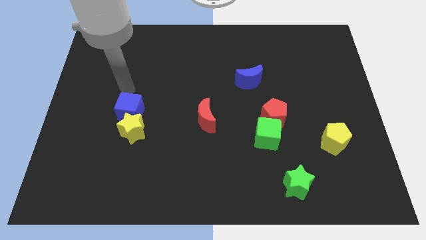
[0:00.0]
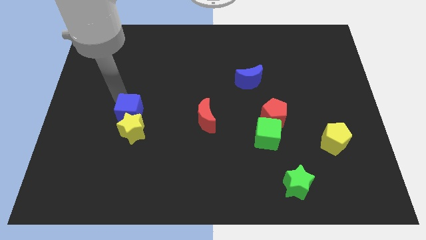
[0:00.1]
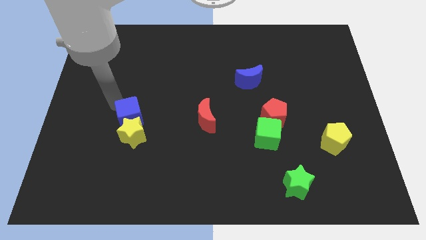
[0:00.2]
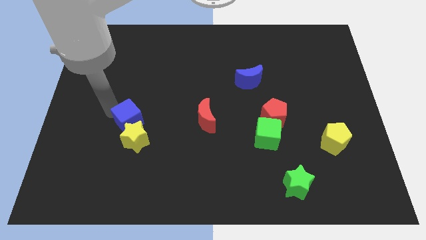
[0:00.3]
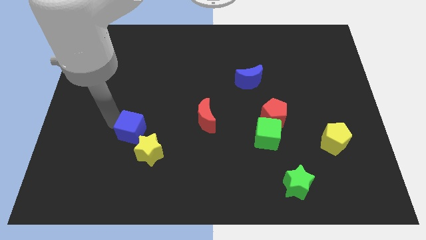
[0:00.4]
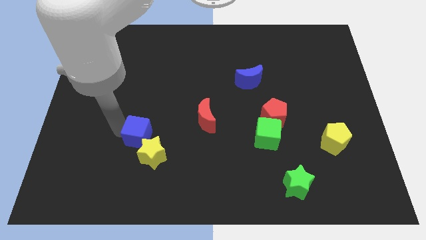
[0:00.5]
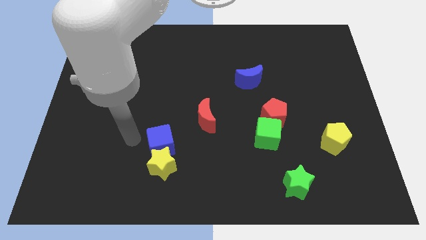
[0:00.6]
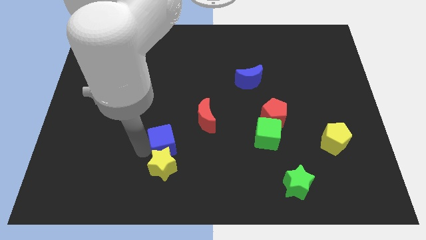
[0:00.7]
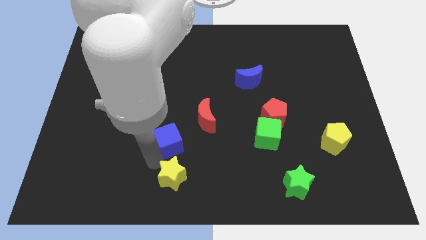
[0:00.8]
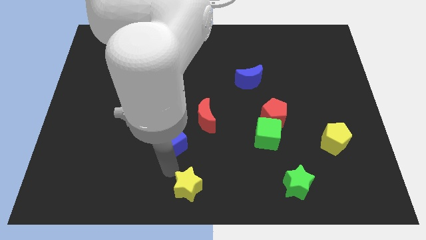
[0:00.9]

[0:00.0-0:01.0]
pull the blue cube apart from the yellow star

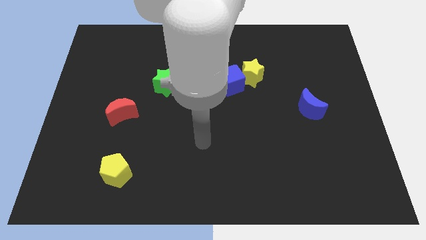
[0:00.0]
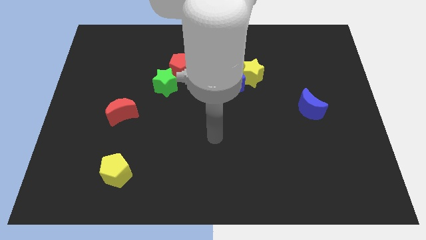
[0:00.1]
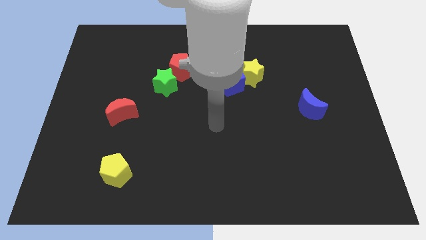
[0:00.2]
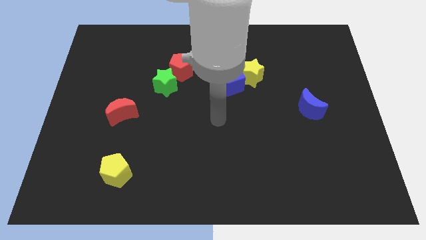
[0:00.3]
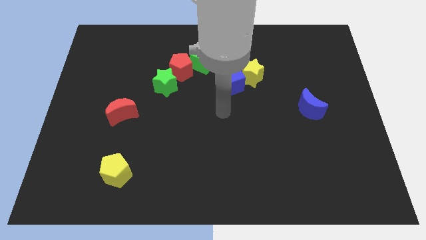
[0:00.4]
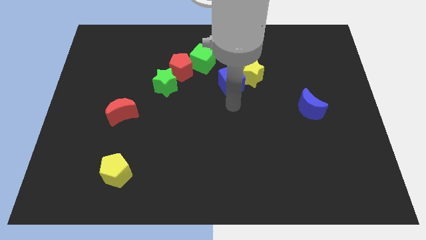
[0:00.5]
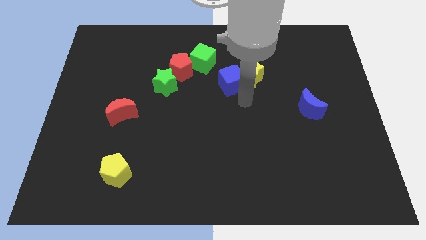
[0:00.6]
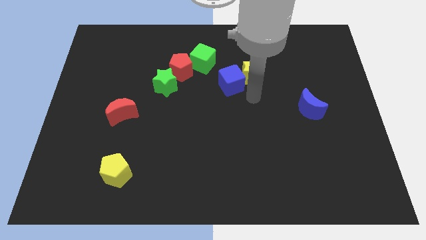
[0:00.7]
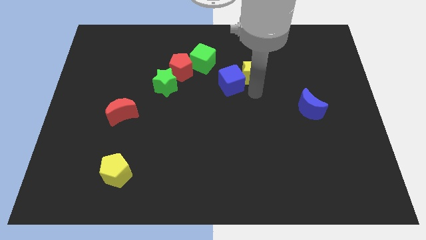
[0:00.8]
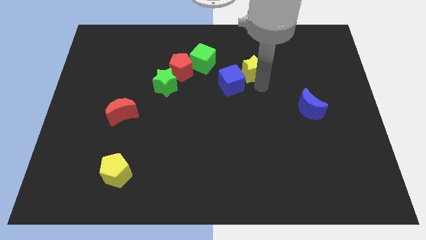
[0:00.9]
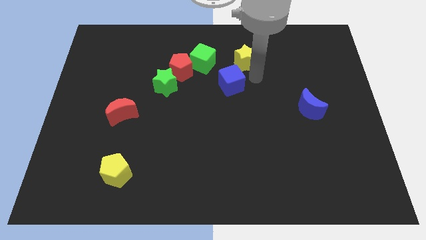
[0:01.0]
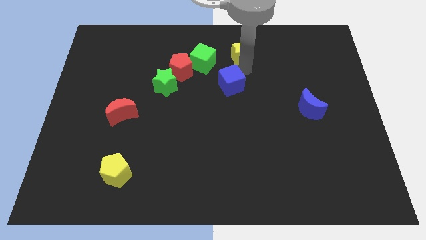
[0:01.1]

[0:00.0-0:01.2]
separate the blue cube from the yellow star

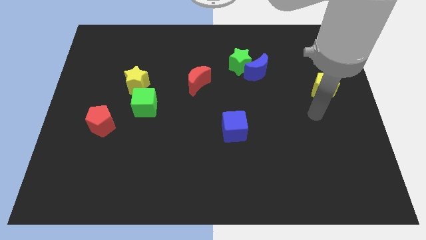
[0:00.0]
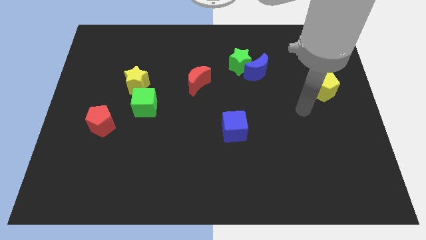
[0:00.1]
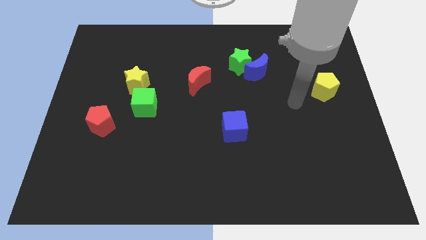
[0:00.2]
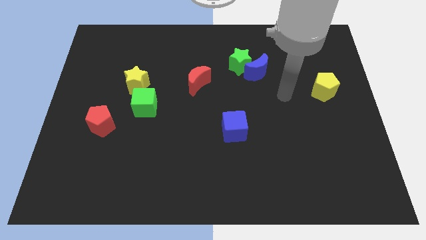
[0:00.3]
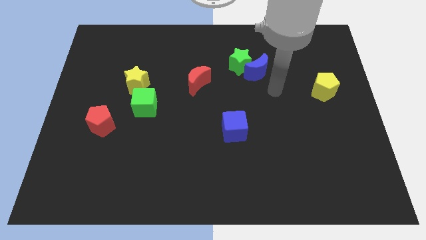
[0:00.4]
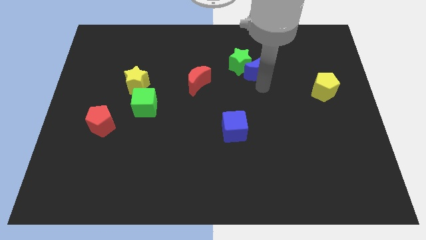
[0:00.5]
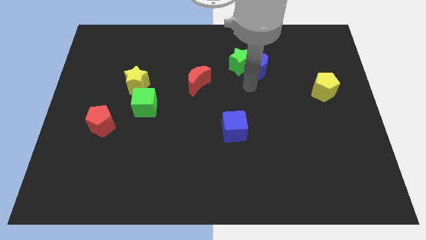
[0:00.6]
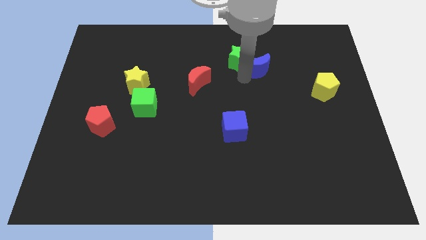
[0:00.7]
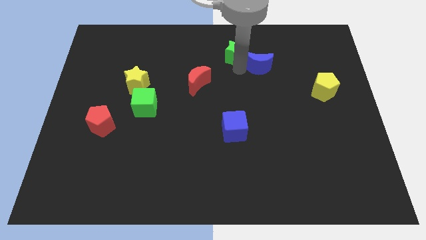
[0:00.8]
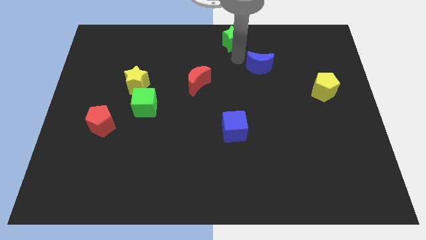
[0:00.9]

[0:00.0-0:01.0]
pull the blue moon apart from the green star

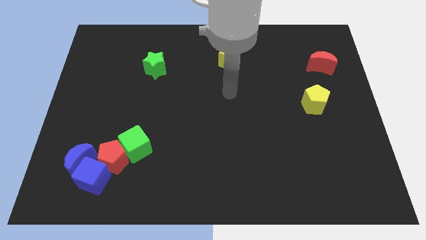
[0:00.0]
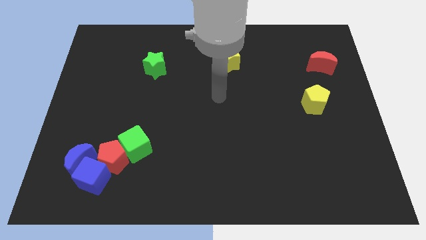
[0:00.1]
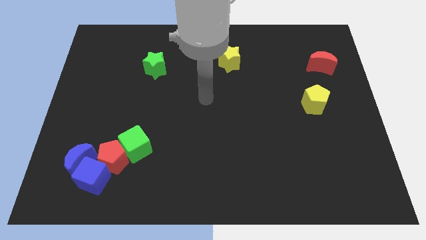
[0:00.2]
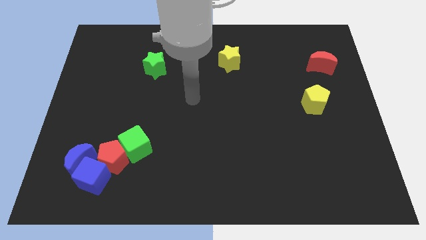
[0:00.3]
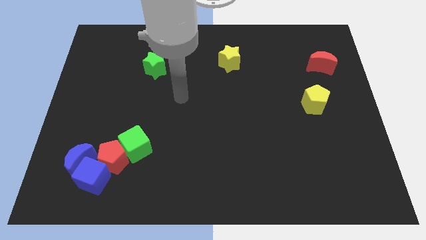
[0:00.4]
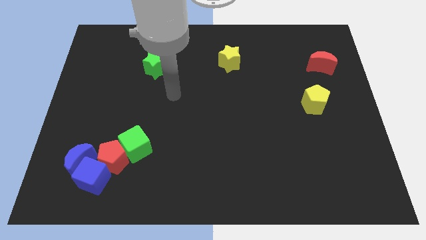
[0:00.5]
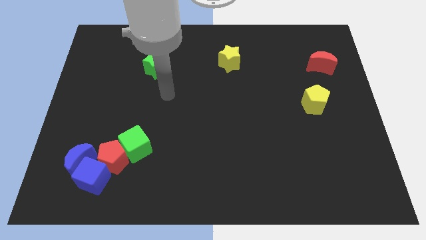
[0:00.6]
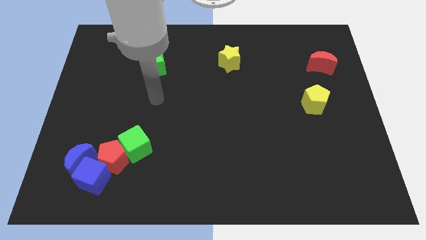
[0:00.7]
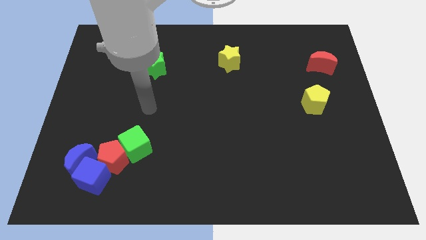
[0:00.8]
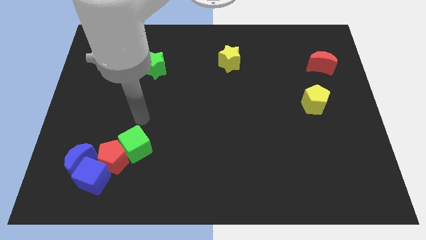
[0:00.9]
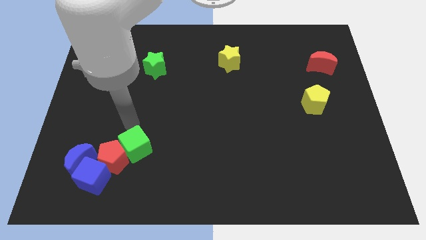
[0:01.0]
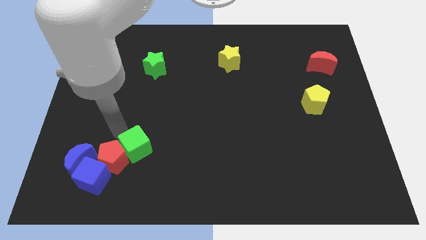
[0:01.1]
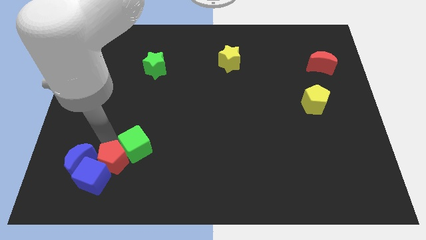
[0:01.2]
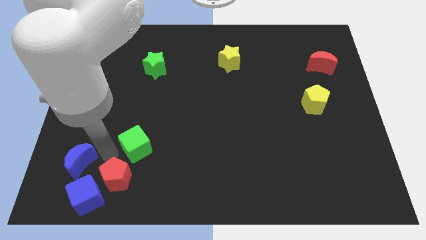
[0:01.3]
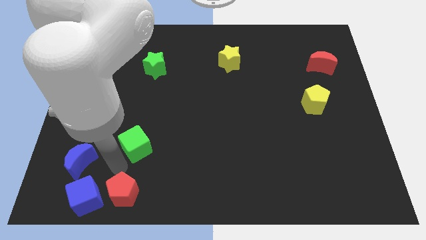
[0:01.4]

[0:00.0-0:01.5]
separate the green cube from the red pentagon

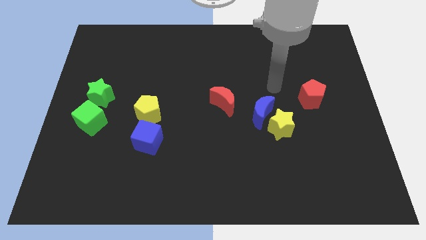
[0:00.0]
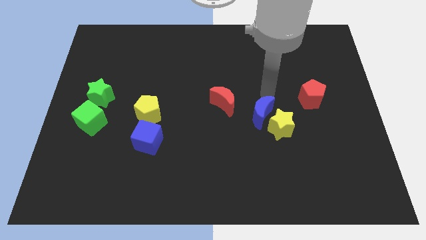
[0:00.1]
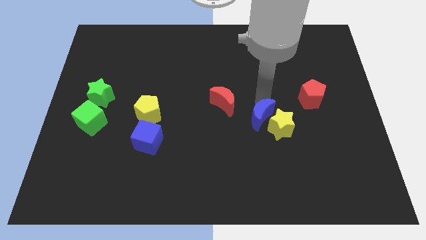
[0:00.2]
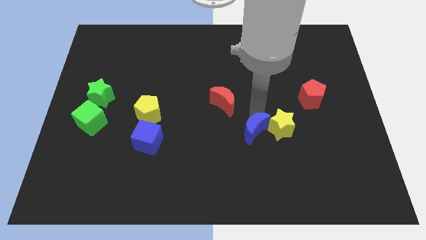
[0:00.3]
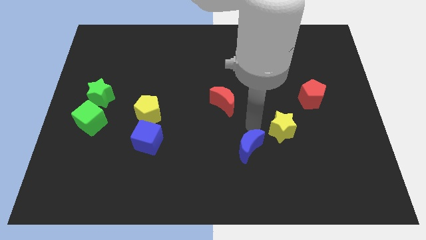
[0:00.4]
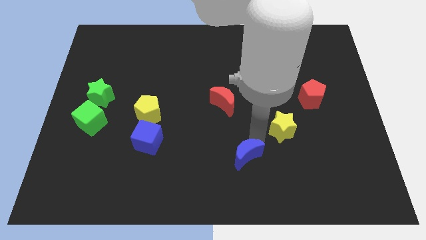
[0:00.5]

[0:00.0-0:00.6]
move the yellow star away from the blue moon

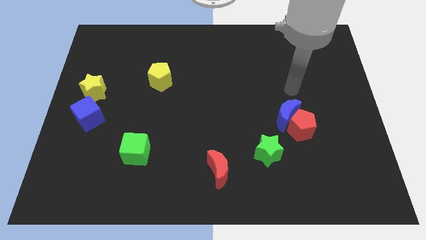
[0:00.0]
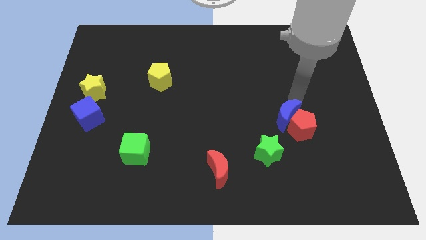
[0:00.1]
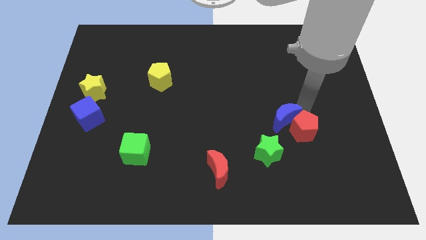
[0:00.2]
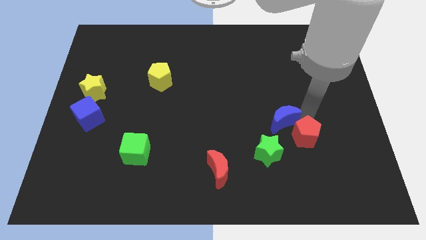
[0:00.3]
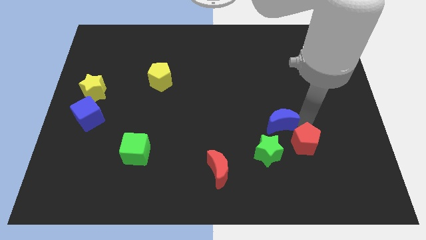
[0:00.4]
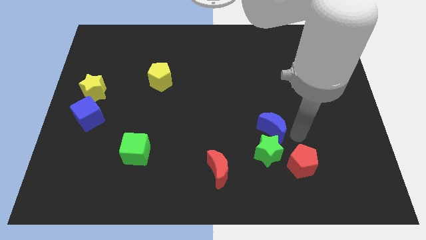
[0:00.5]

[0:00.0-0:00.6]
move the blue moon away from the red pentagon

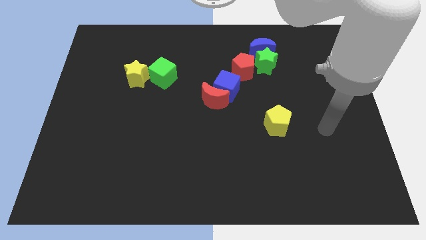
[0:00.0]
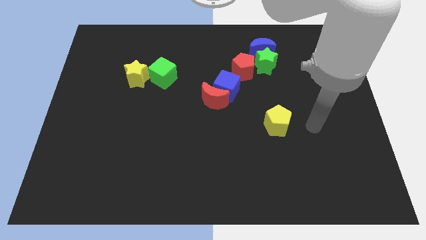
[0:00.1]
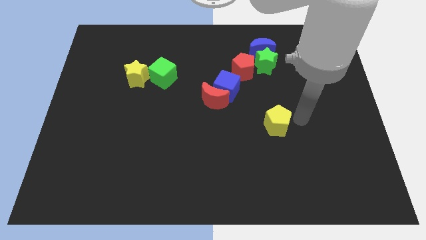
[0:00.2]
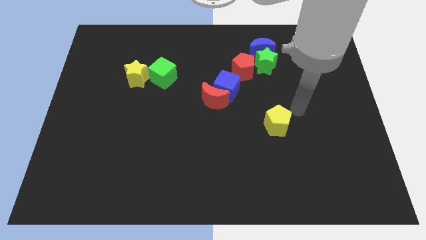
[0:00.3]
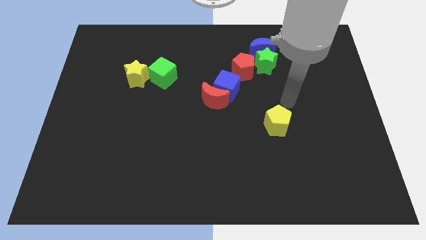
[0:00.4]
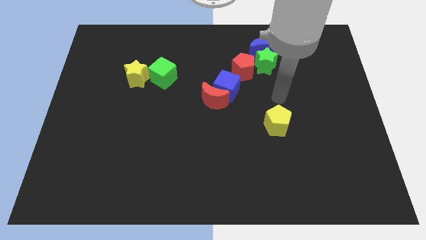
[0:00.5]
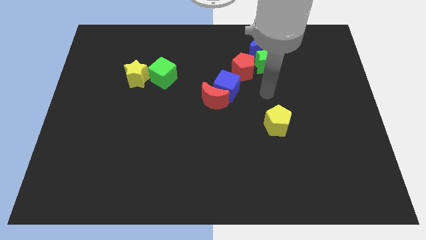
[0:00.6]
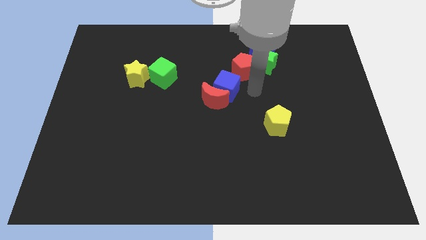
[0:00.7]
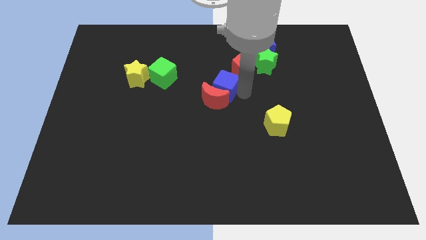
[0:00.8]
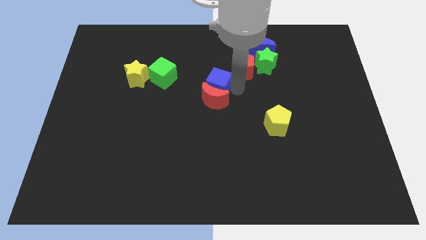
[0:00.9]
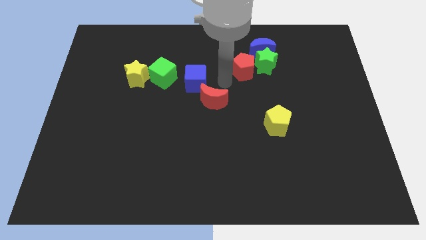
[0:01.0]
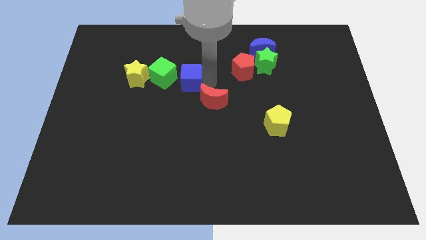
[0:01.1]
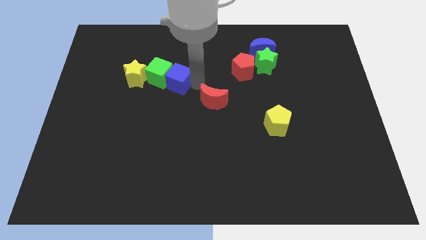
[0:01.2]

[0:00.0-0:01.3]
pull the red moon apart from the blue cube

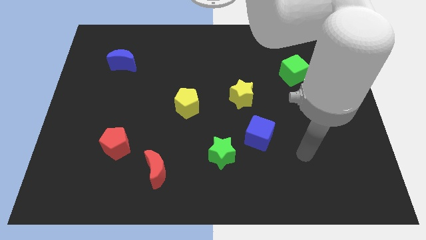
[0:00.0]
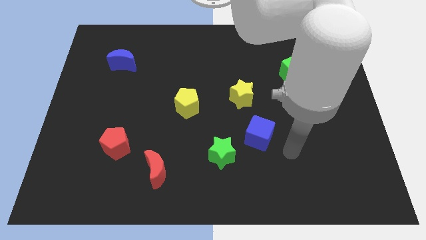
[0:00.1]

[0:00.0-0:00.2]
separate the blue cube from the green star

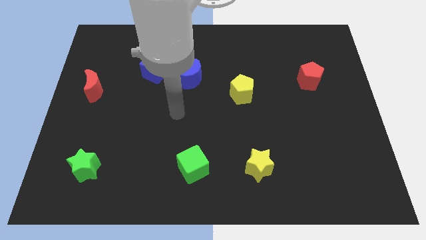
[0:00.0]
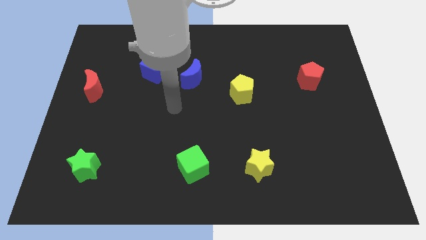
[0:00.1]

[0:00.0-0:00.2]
pull the blue moon apart from the blue cube

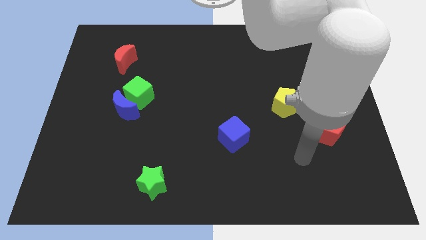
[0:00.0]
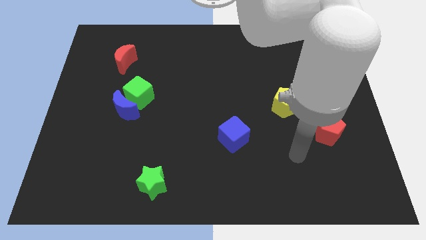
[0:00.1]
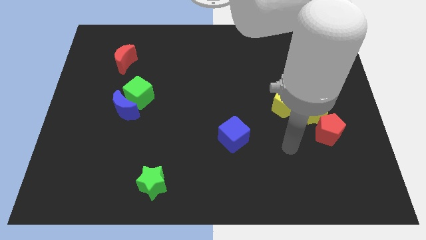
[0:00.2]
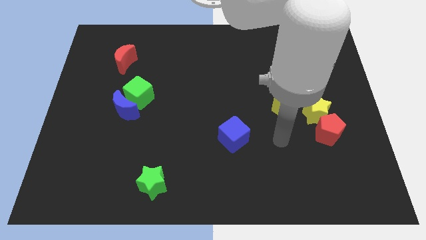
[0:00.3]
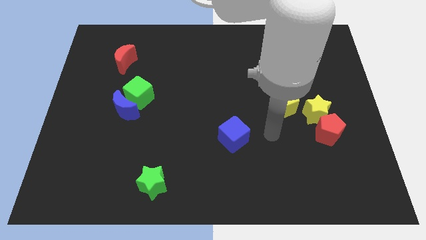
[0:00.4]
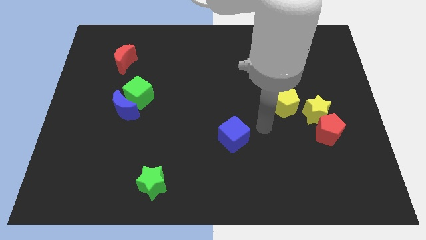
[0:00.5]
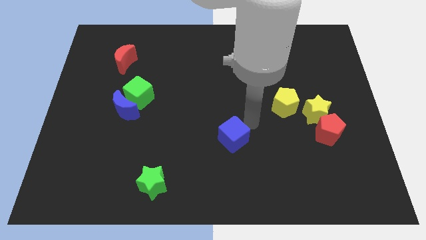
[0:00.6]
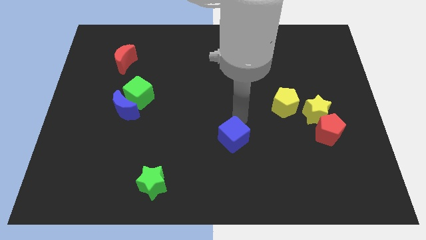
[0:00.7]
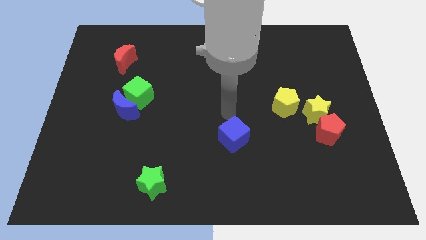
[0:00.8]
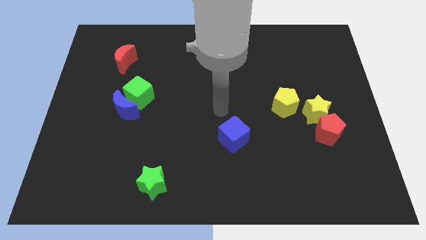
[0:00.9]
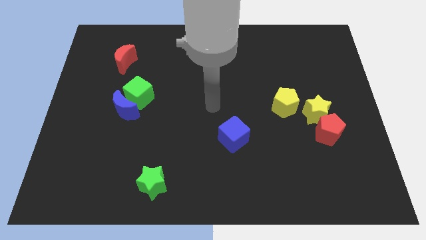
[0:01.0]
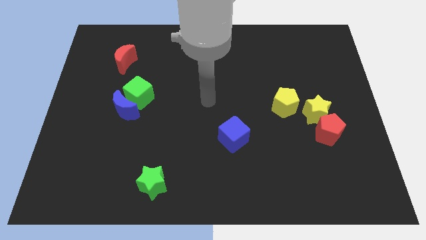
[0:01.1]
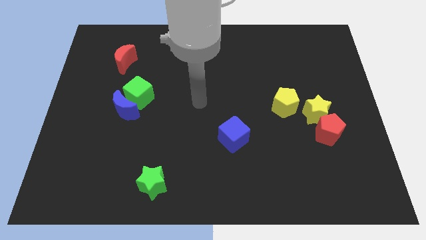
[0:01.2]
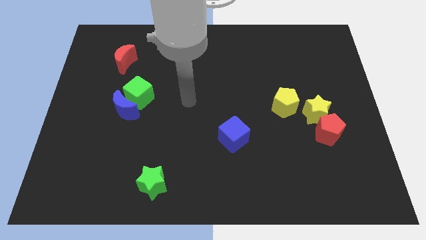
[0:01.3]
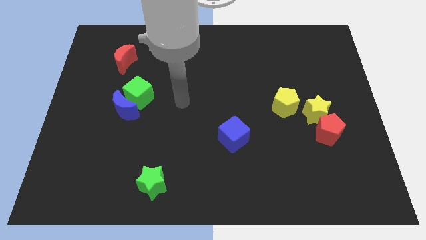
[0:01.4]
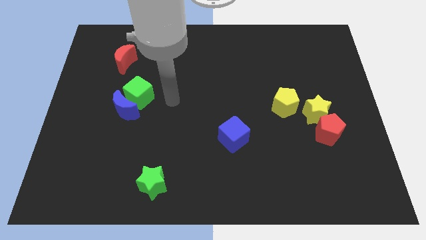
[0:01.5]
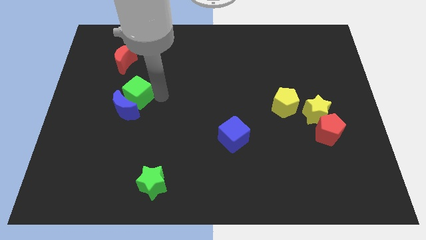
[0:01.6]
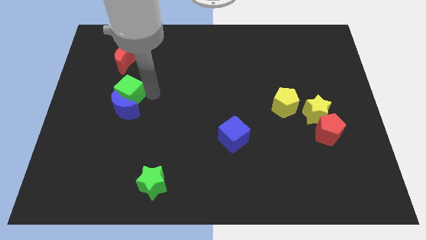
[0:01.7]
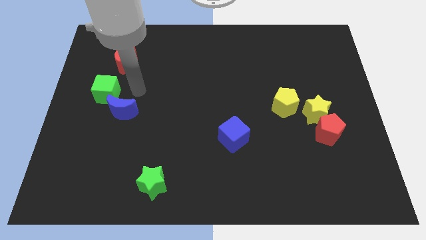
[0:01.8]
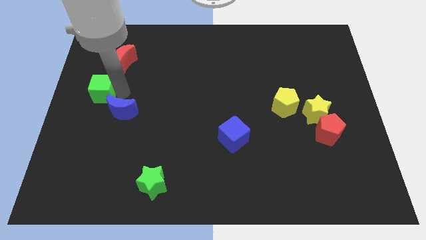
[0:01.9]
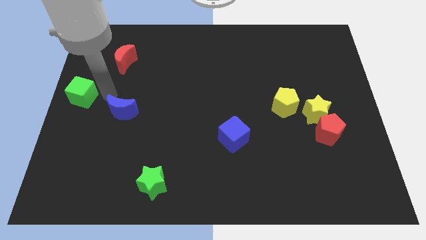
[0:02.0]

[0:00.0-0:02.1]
pull the blue moon apart from the green cube
